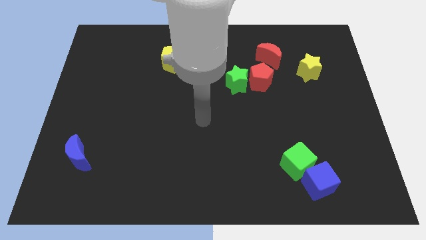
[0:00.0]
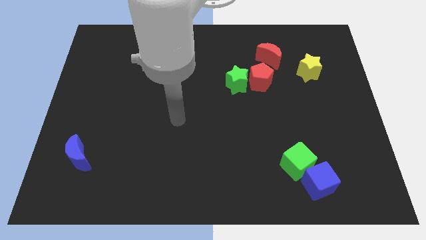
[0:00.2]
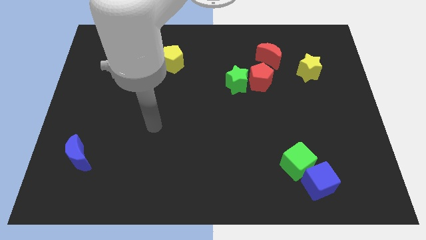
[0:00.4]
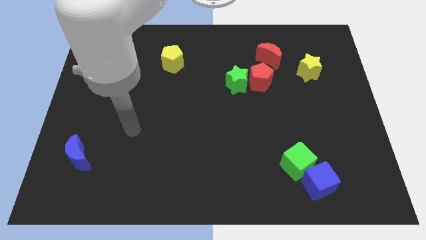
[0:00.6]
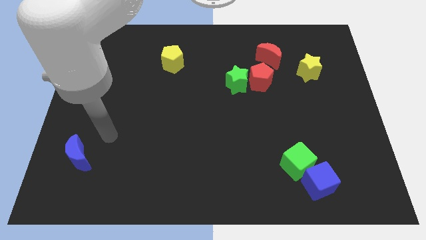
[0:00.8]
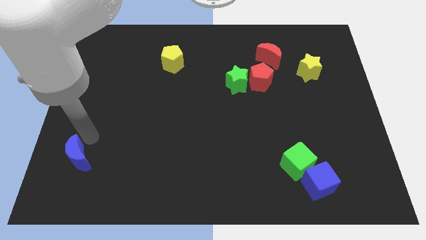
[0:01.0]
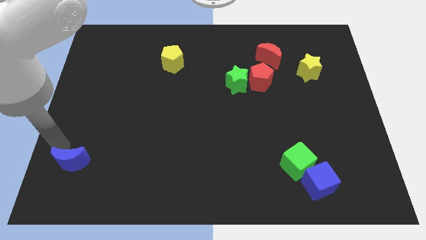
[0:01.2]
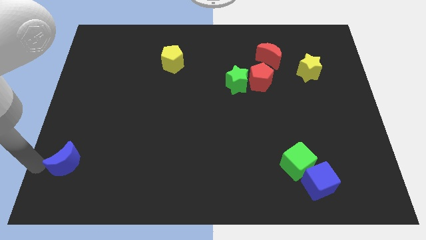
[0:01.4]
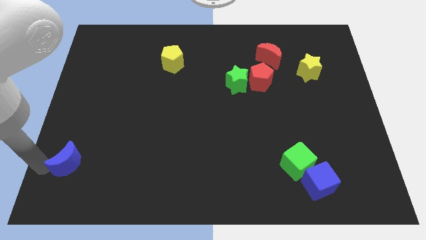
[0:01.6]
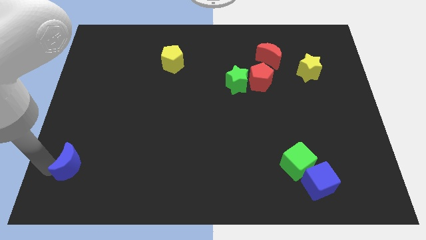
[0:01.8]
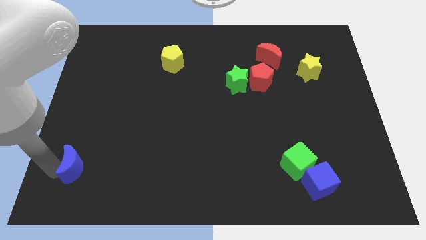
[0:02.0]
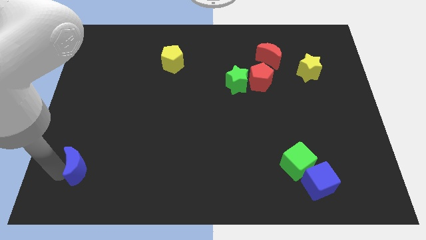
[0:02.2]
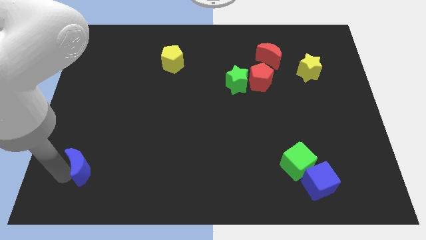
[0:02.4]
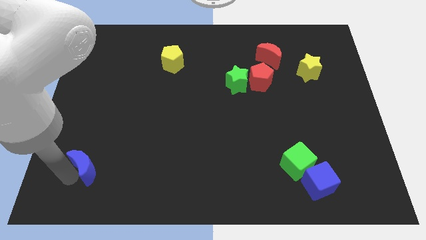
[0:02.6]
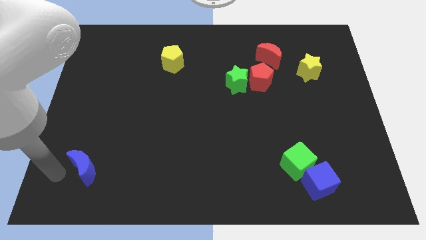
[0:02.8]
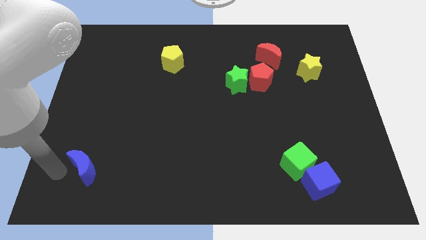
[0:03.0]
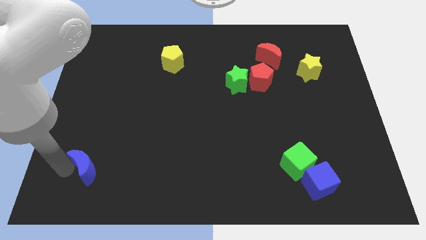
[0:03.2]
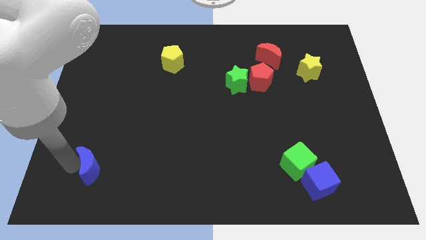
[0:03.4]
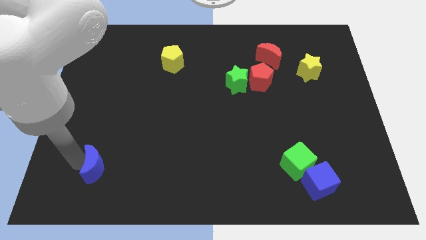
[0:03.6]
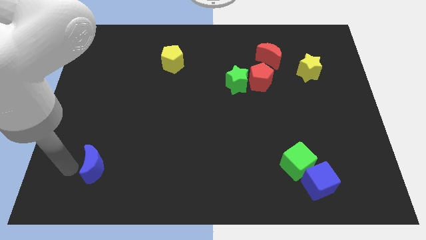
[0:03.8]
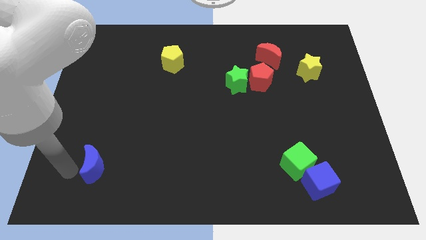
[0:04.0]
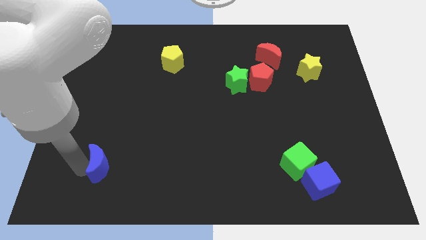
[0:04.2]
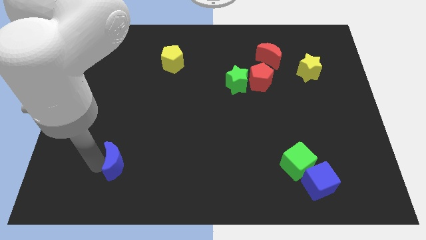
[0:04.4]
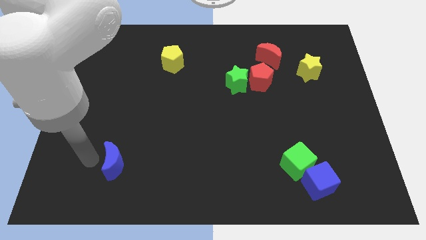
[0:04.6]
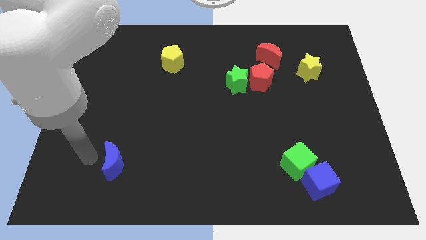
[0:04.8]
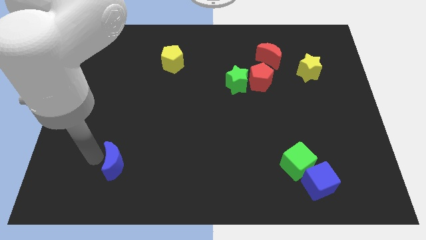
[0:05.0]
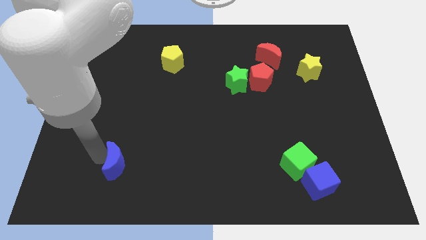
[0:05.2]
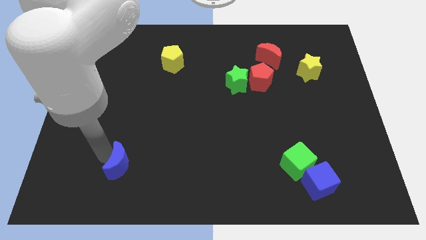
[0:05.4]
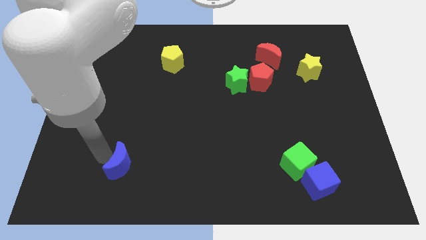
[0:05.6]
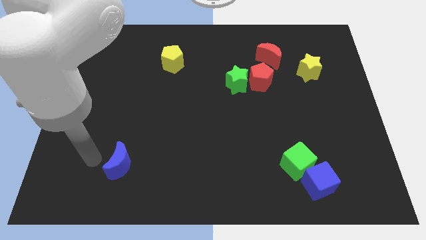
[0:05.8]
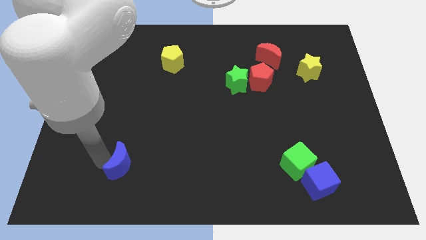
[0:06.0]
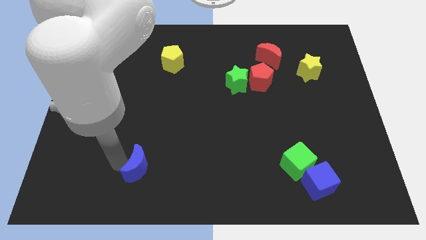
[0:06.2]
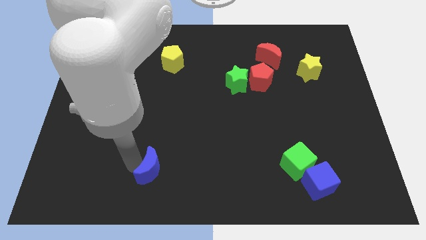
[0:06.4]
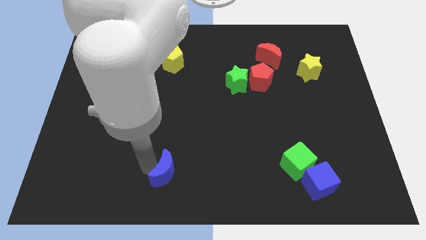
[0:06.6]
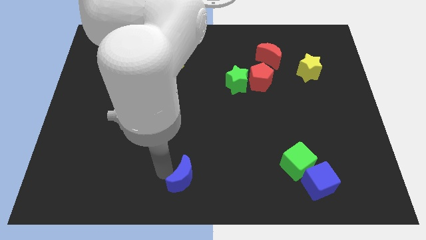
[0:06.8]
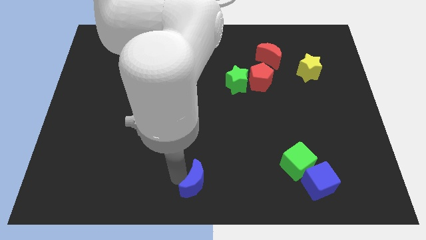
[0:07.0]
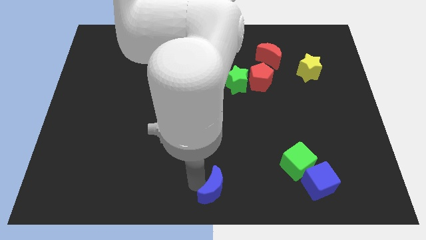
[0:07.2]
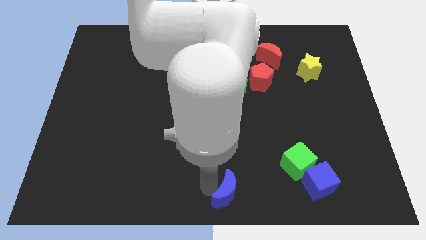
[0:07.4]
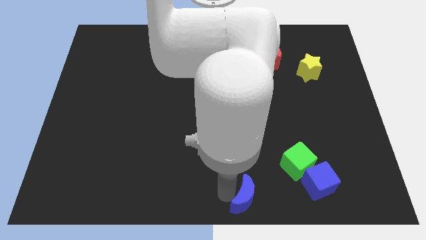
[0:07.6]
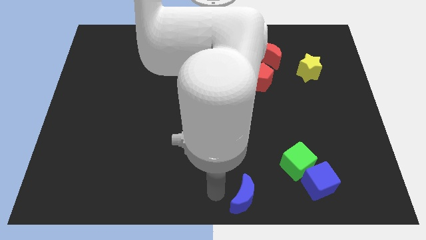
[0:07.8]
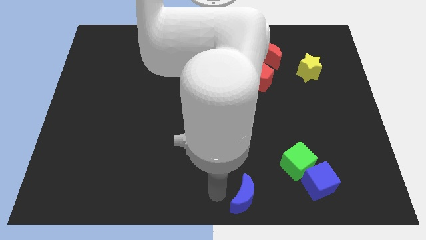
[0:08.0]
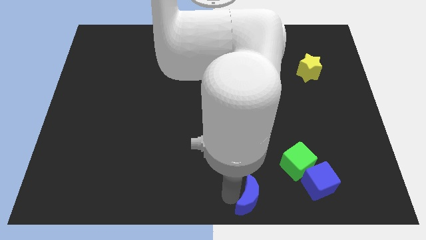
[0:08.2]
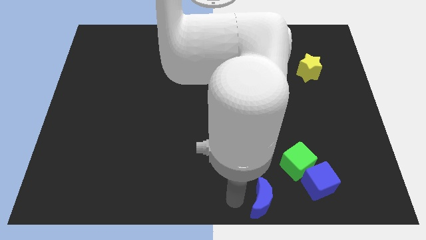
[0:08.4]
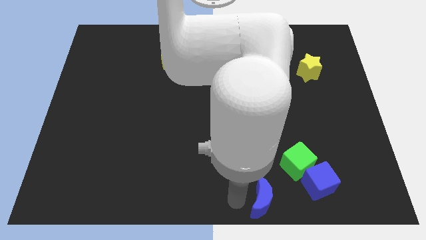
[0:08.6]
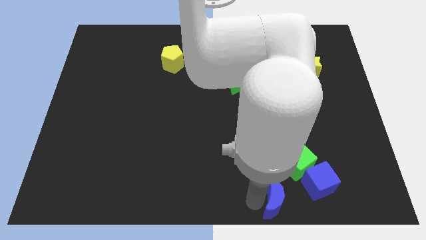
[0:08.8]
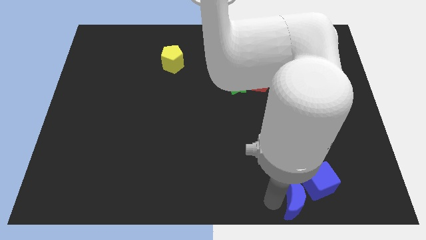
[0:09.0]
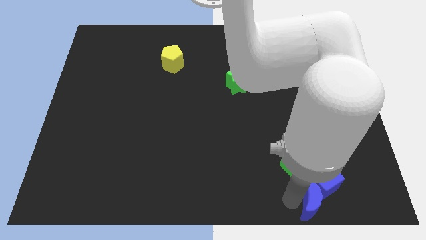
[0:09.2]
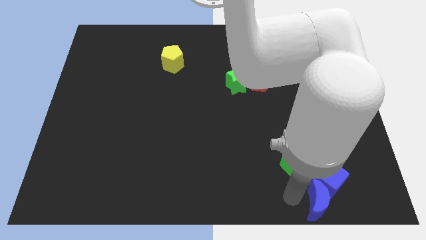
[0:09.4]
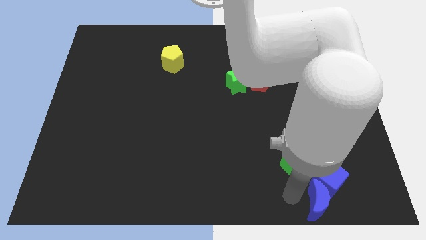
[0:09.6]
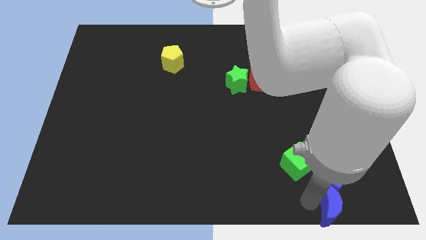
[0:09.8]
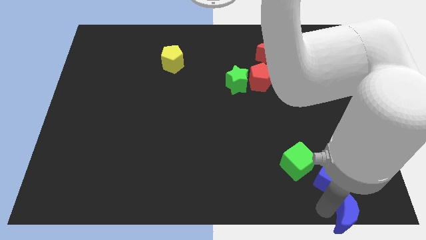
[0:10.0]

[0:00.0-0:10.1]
slide the blue moon to the lower right corner

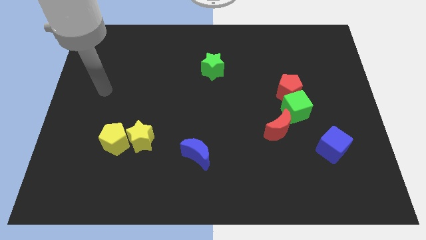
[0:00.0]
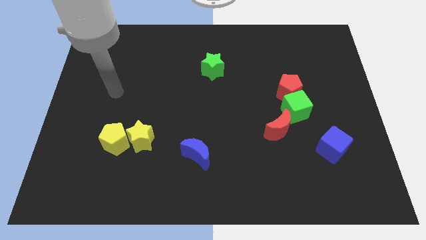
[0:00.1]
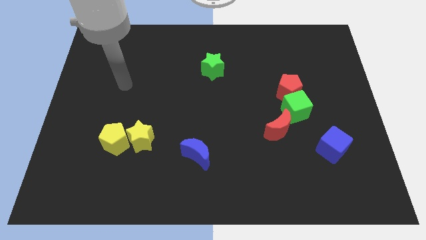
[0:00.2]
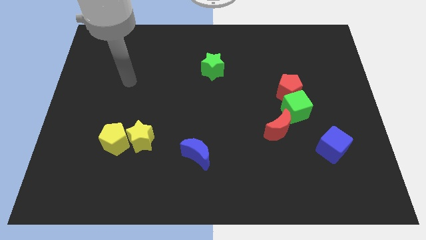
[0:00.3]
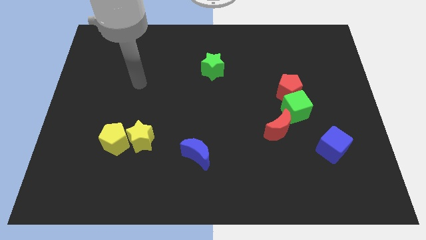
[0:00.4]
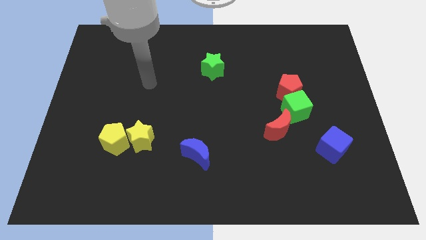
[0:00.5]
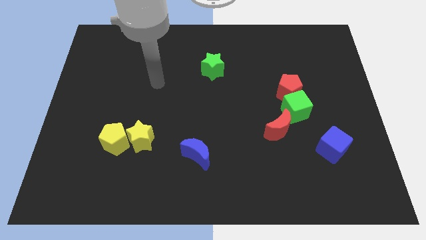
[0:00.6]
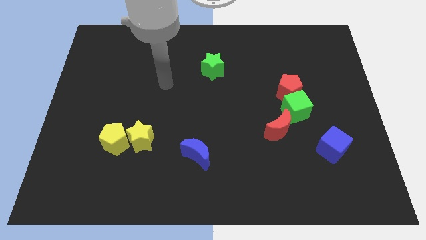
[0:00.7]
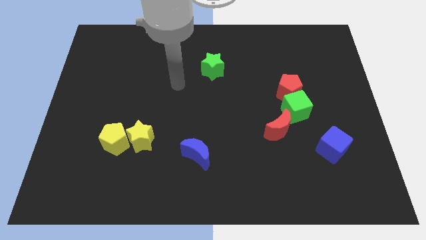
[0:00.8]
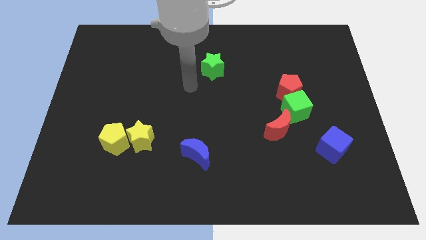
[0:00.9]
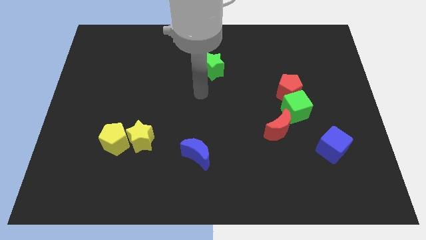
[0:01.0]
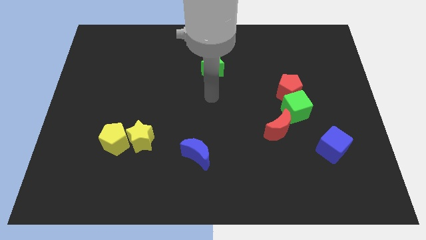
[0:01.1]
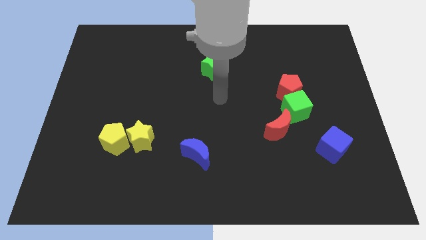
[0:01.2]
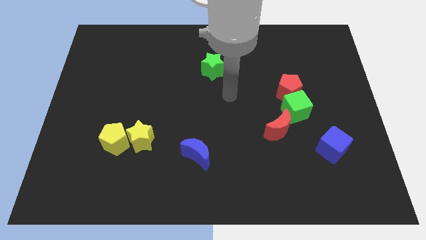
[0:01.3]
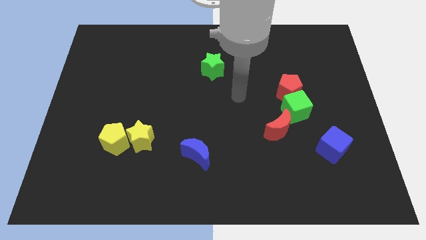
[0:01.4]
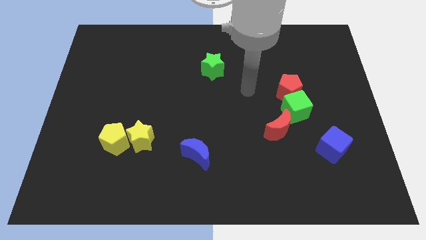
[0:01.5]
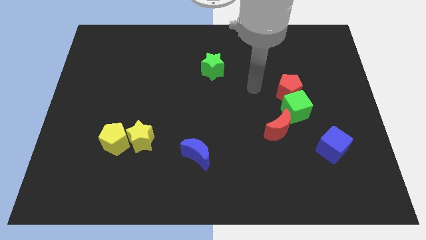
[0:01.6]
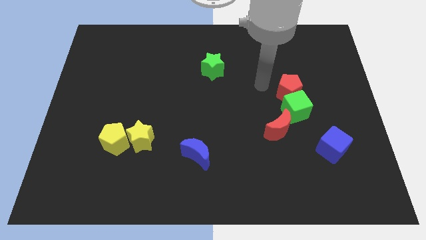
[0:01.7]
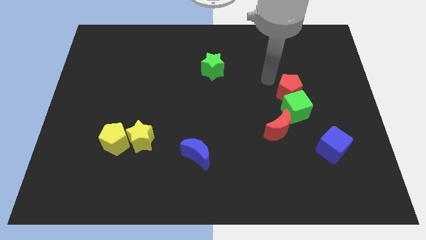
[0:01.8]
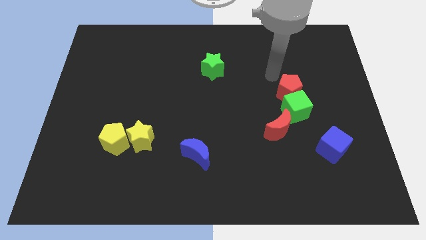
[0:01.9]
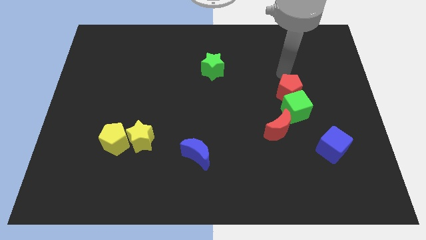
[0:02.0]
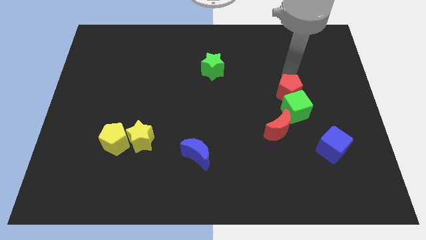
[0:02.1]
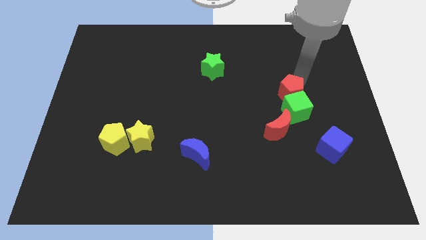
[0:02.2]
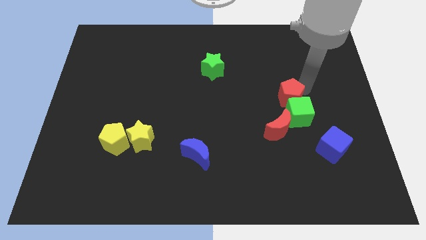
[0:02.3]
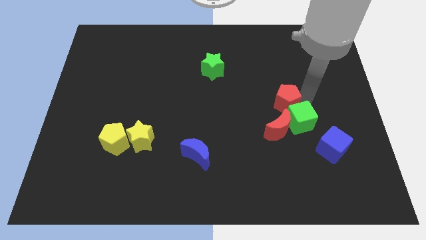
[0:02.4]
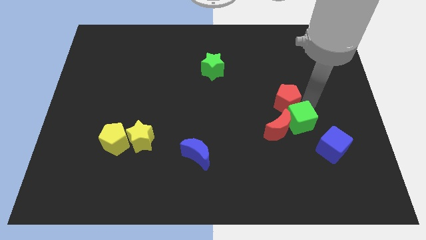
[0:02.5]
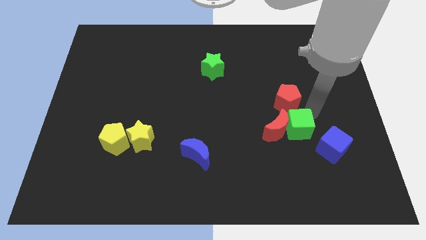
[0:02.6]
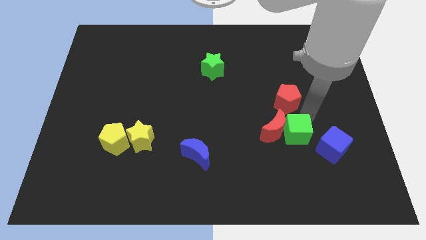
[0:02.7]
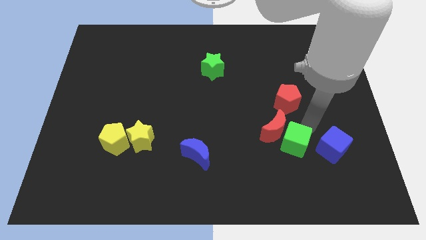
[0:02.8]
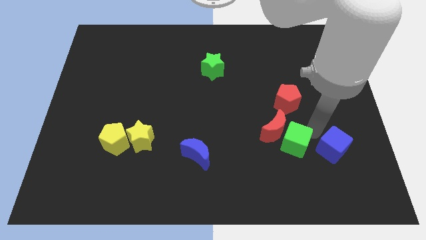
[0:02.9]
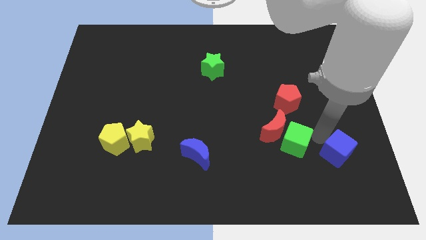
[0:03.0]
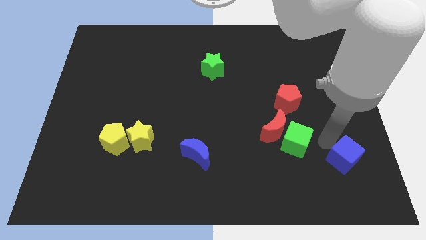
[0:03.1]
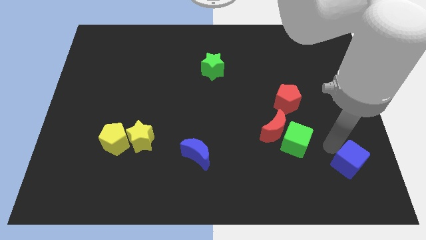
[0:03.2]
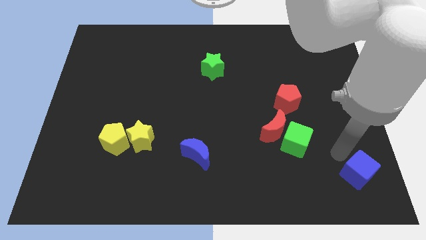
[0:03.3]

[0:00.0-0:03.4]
push the blue cube to the bottom right
